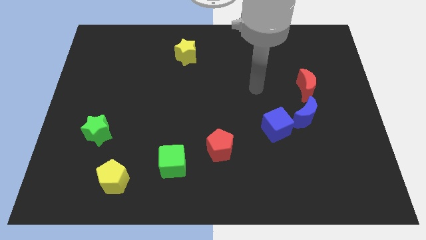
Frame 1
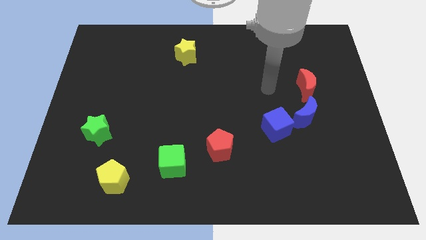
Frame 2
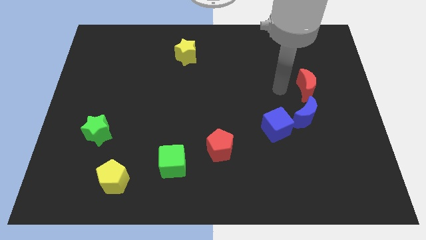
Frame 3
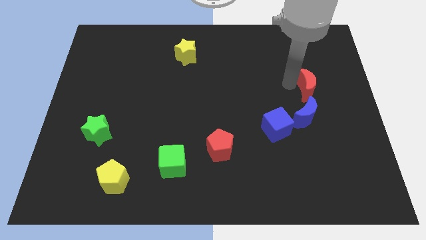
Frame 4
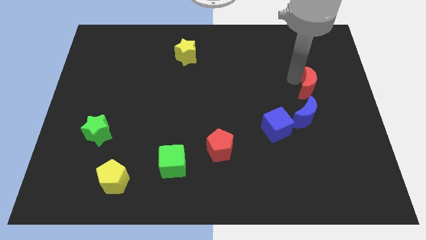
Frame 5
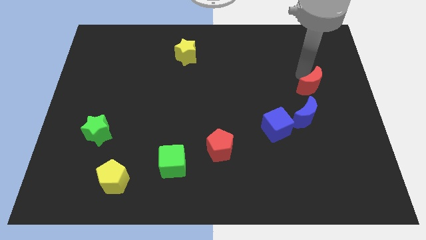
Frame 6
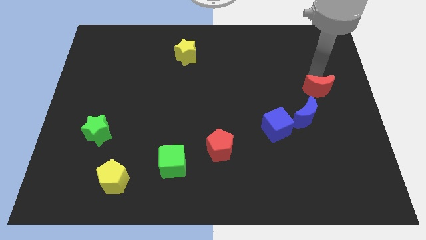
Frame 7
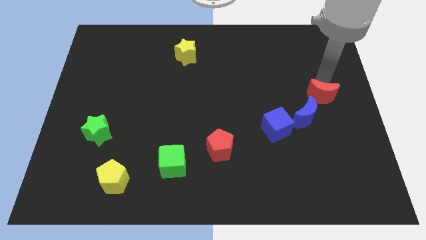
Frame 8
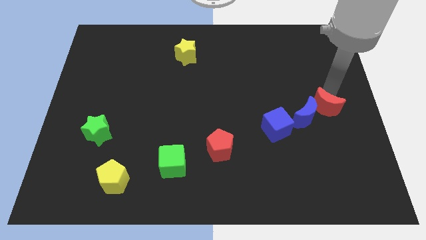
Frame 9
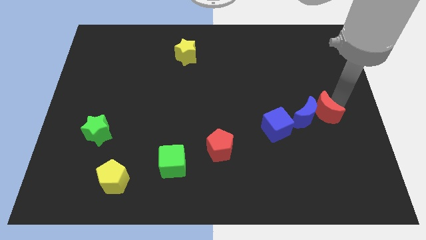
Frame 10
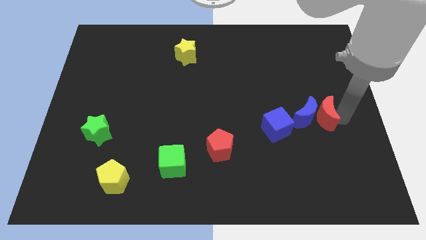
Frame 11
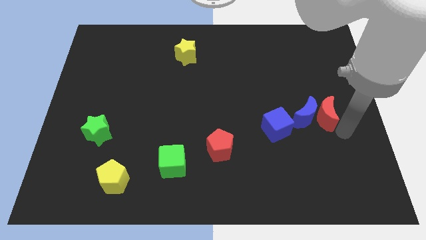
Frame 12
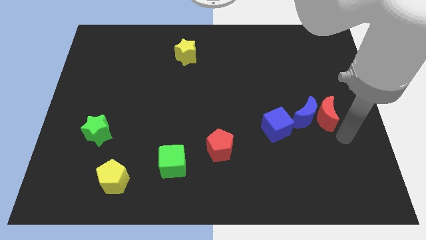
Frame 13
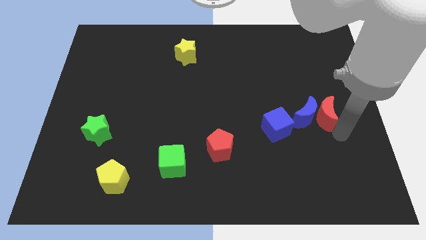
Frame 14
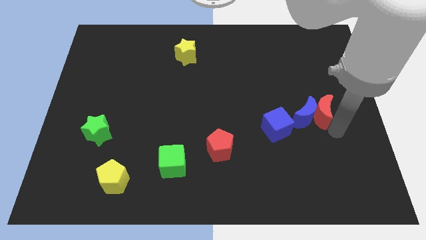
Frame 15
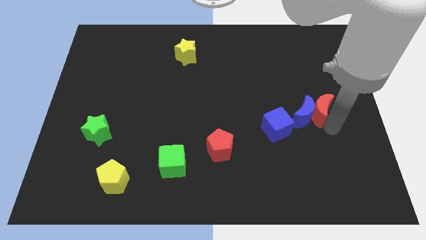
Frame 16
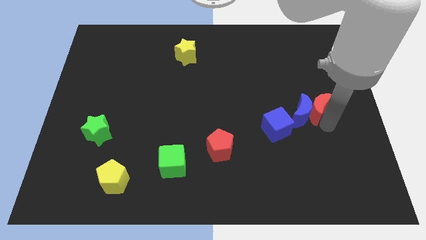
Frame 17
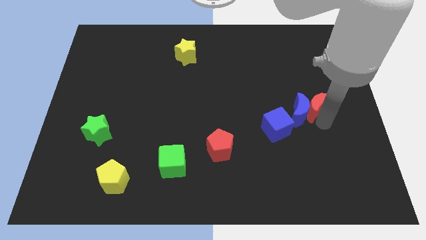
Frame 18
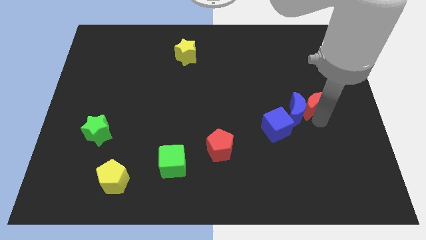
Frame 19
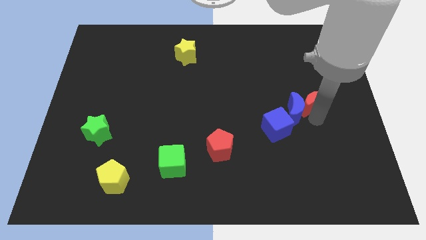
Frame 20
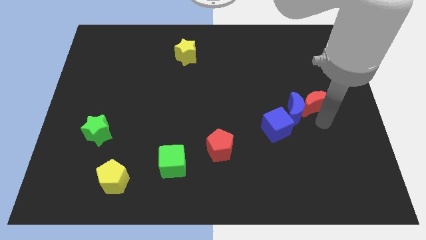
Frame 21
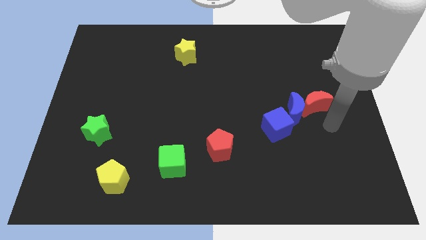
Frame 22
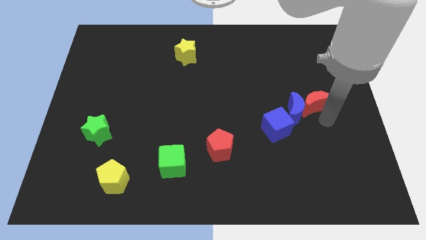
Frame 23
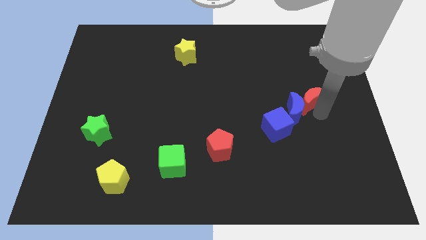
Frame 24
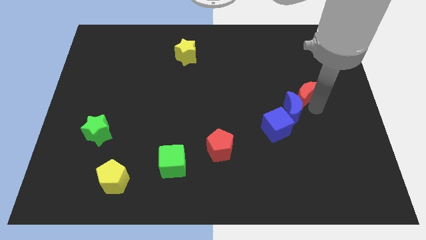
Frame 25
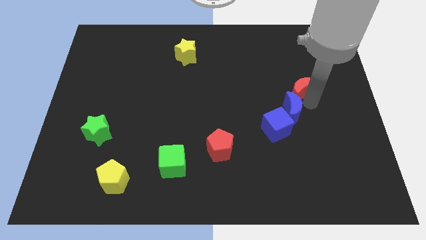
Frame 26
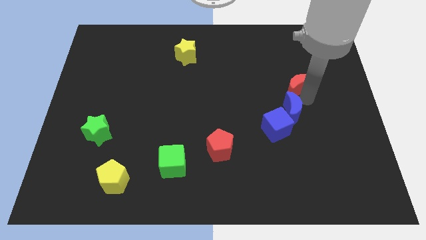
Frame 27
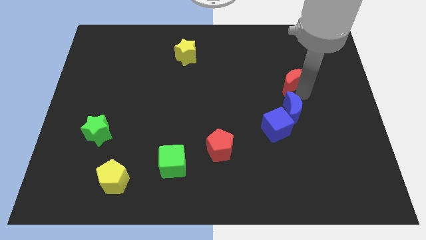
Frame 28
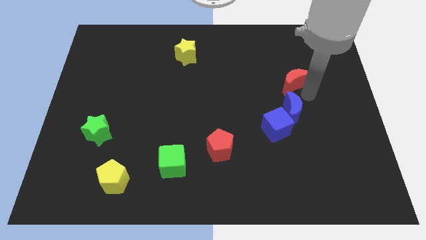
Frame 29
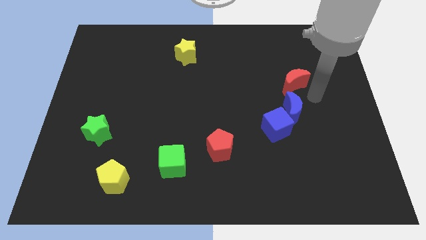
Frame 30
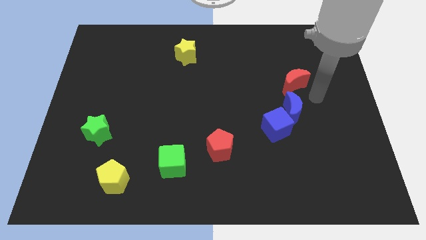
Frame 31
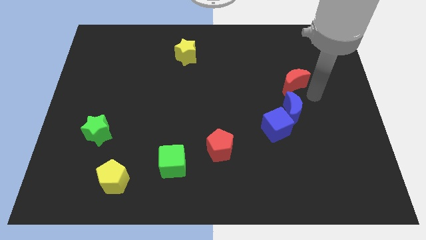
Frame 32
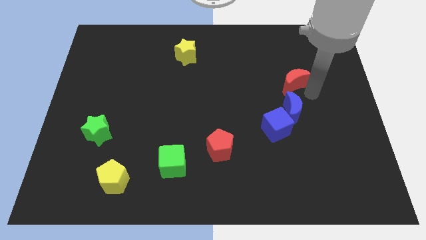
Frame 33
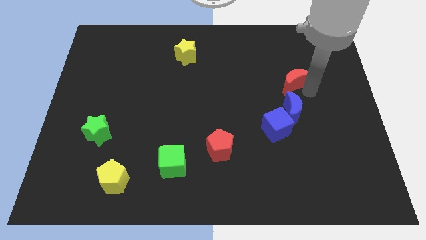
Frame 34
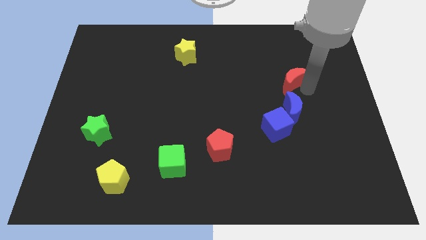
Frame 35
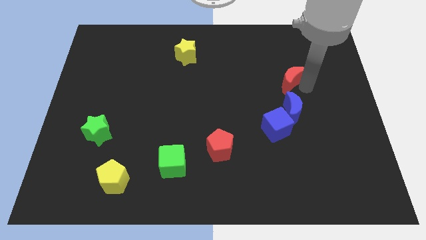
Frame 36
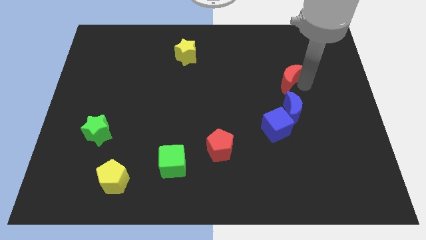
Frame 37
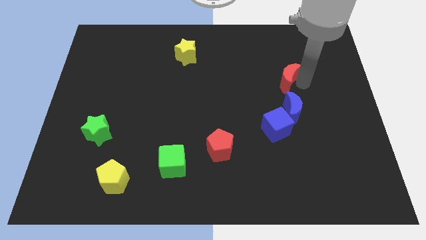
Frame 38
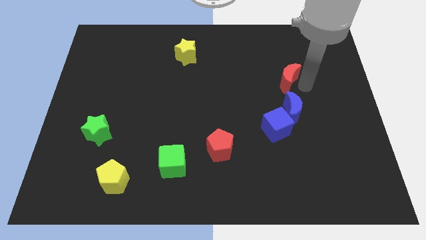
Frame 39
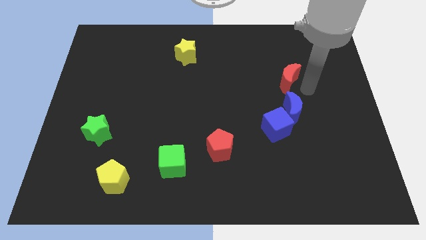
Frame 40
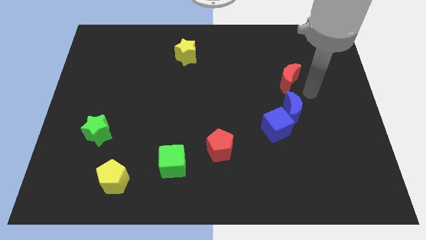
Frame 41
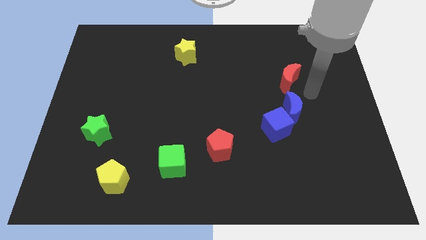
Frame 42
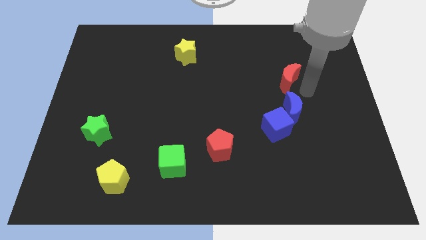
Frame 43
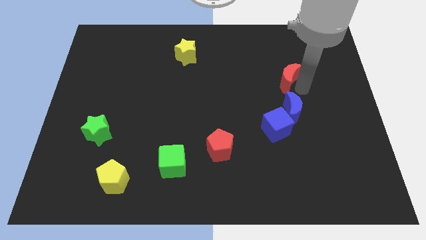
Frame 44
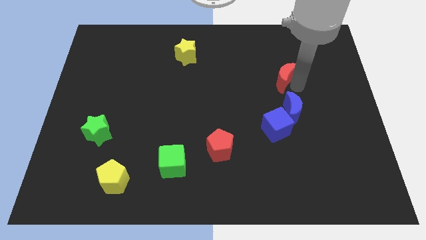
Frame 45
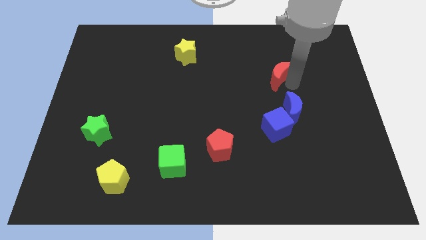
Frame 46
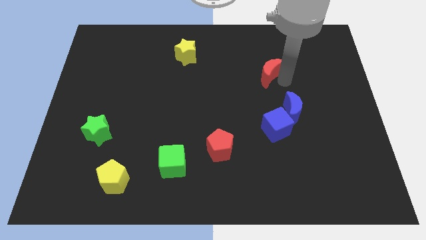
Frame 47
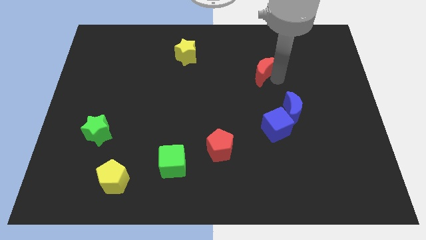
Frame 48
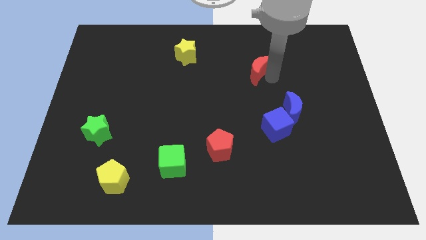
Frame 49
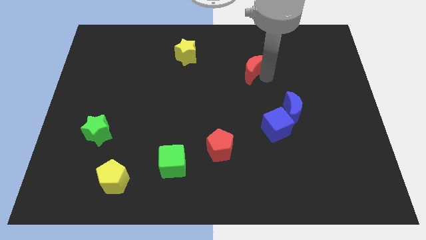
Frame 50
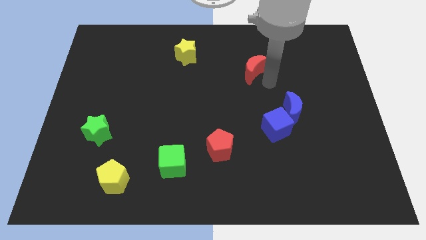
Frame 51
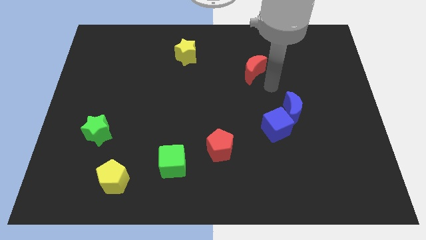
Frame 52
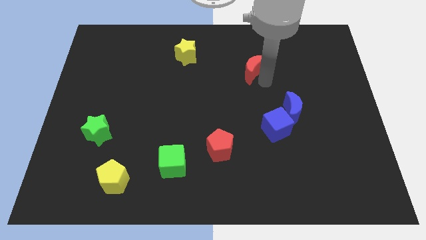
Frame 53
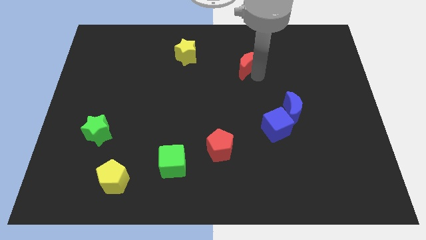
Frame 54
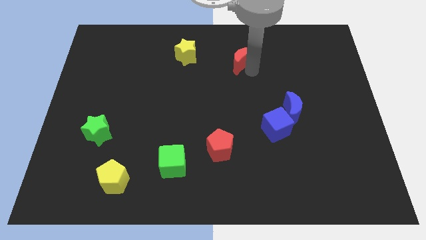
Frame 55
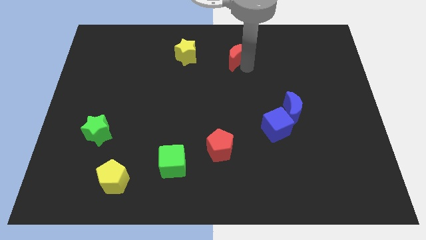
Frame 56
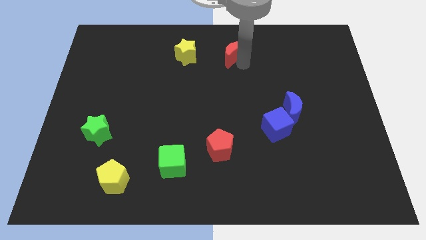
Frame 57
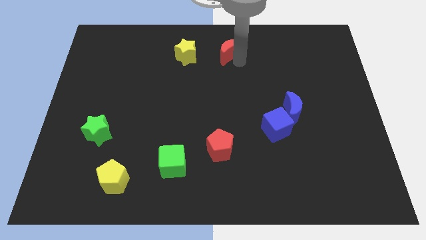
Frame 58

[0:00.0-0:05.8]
push the red moon to the top side

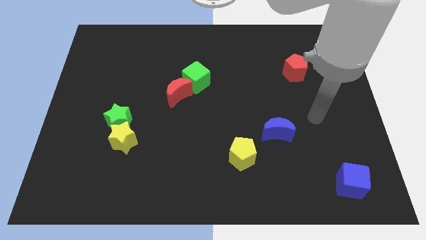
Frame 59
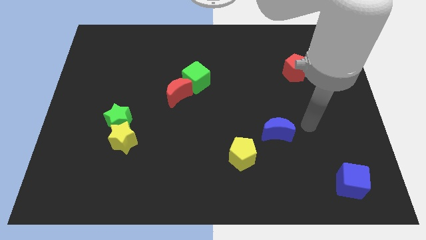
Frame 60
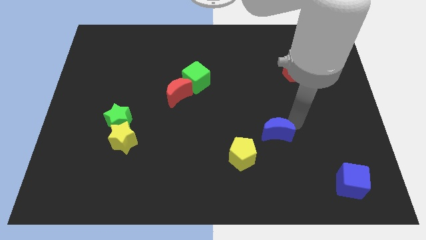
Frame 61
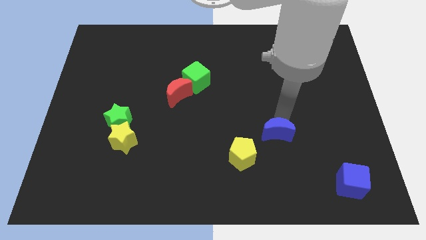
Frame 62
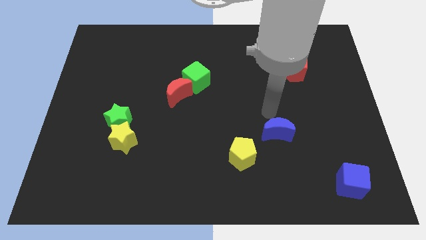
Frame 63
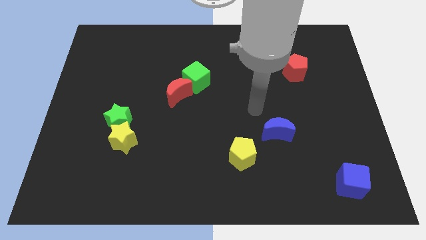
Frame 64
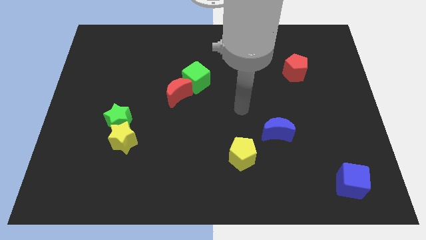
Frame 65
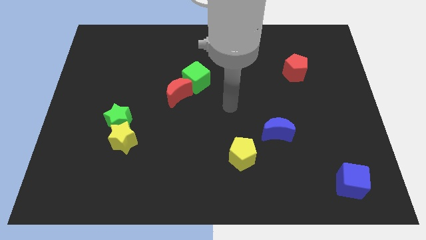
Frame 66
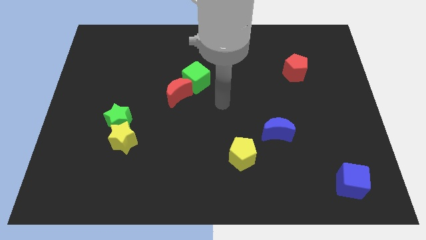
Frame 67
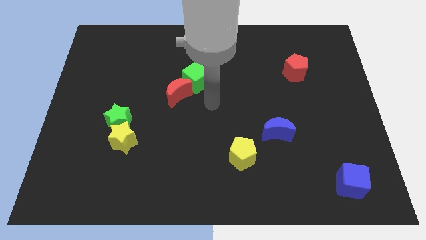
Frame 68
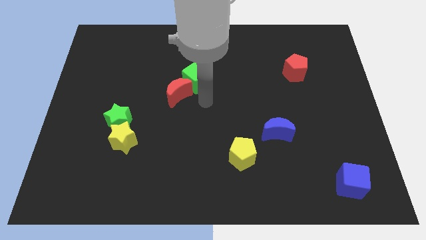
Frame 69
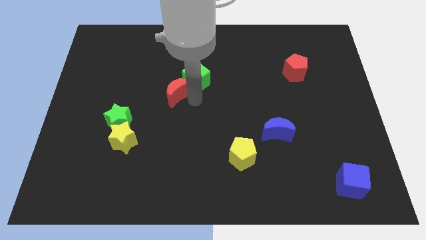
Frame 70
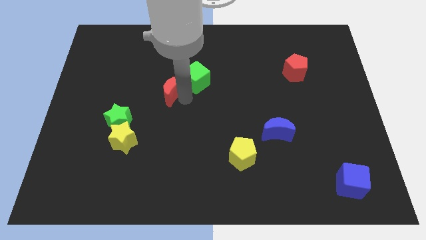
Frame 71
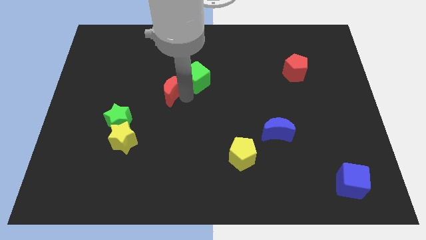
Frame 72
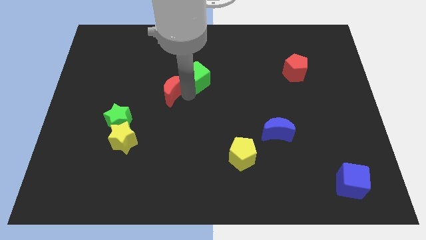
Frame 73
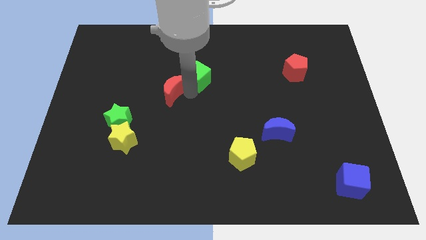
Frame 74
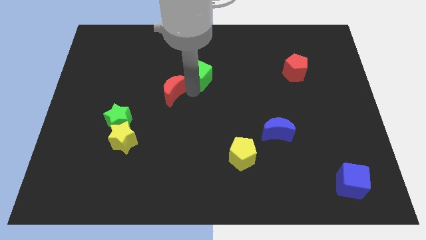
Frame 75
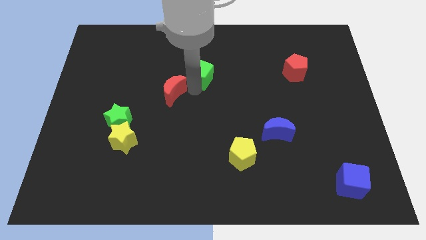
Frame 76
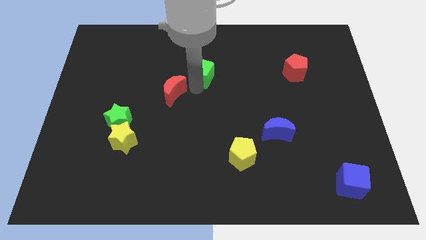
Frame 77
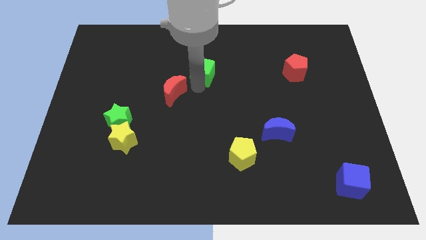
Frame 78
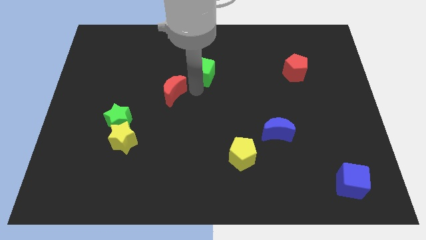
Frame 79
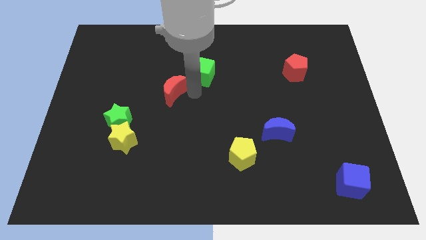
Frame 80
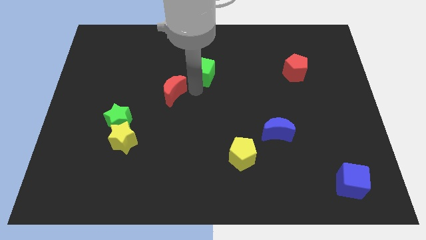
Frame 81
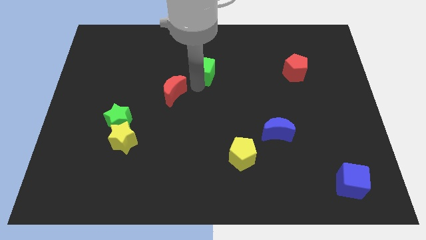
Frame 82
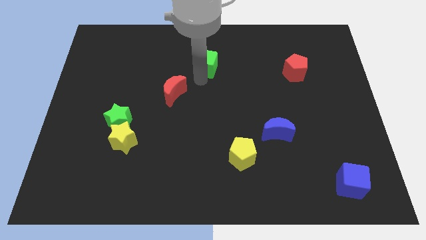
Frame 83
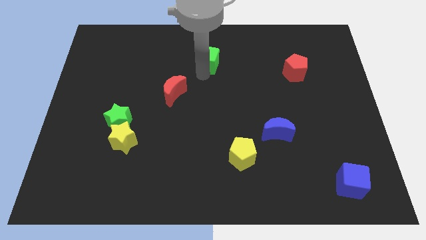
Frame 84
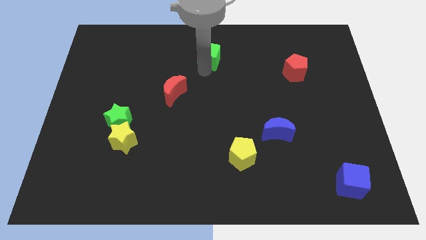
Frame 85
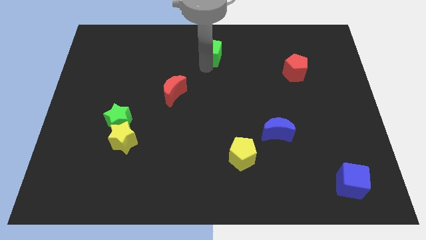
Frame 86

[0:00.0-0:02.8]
put the green cube to the top side
